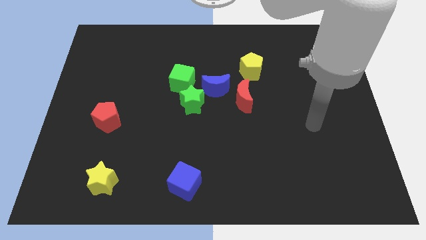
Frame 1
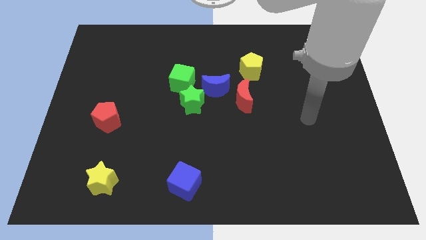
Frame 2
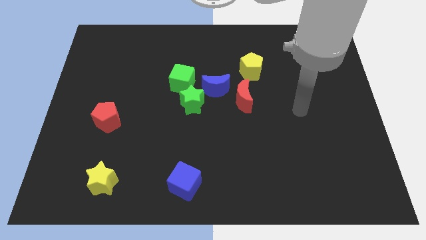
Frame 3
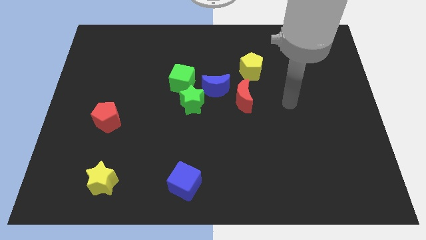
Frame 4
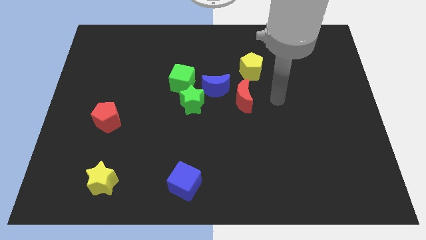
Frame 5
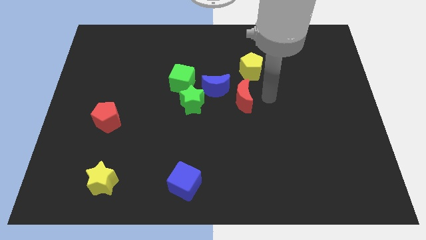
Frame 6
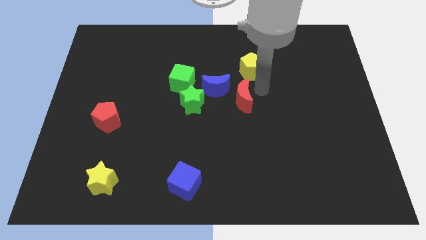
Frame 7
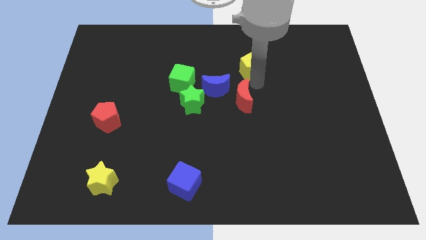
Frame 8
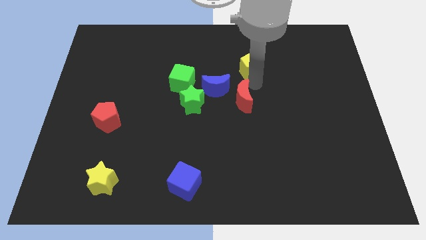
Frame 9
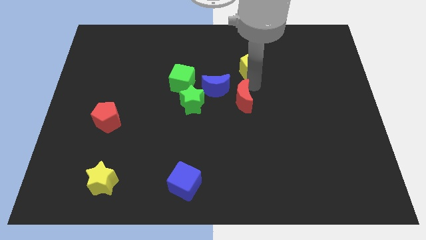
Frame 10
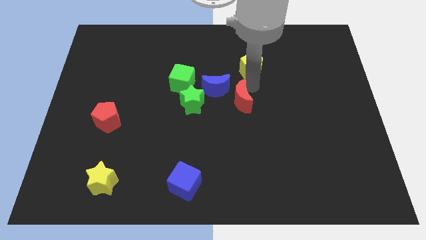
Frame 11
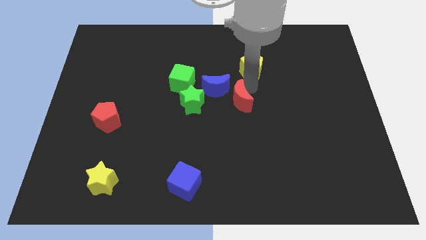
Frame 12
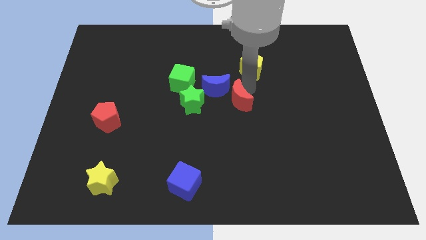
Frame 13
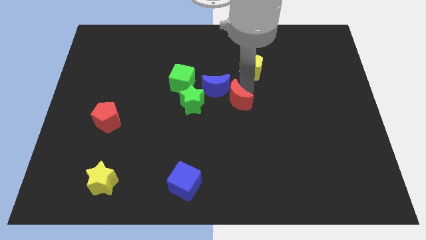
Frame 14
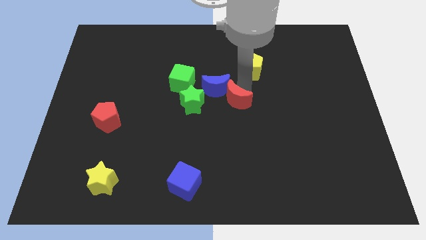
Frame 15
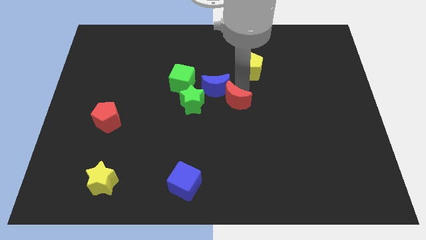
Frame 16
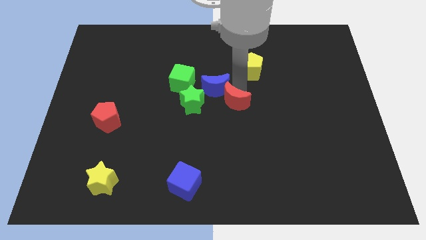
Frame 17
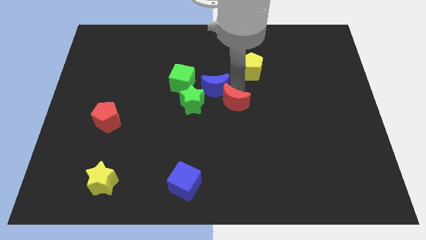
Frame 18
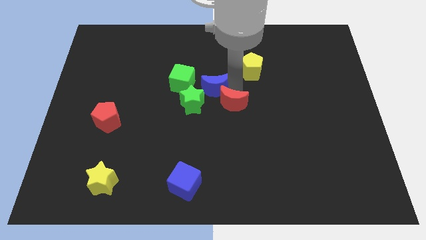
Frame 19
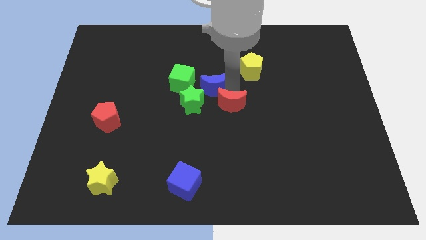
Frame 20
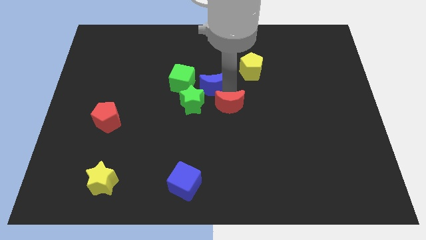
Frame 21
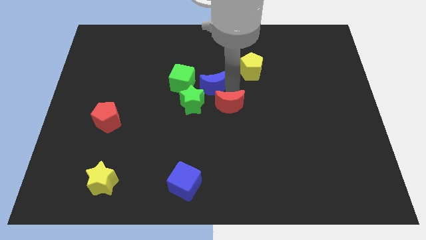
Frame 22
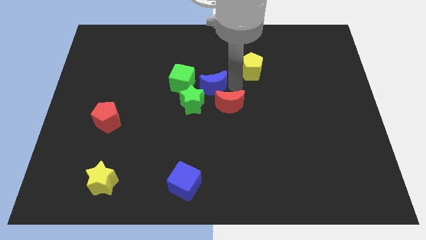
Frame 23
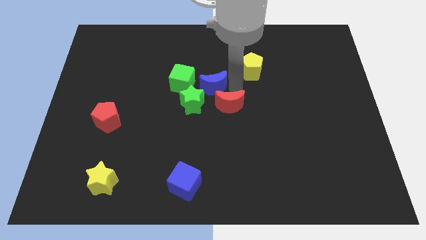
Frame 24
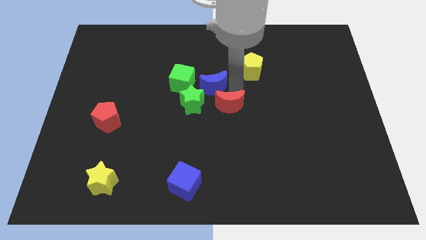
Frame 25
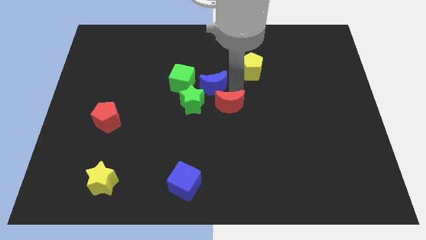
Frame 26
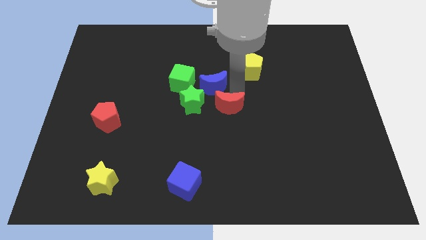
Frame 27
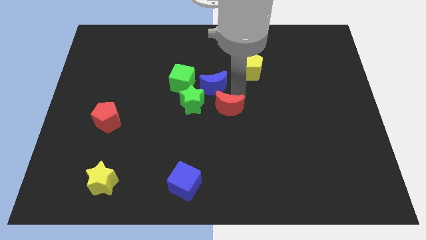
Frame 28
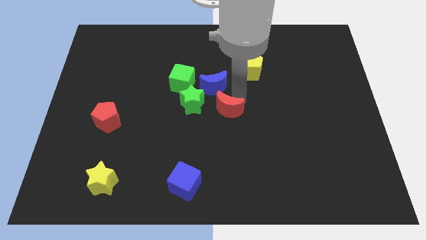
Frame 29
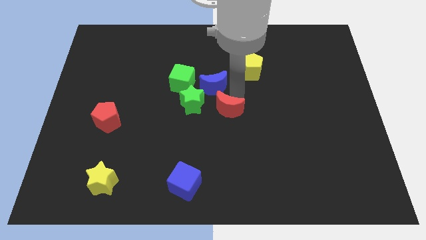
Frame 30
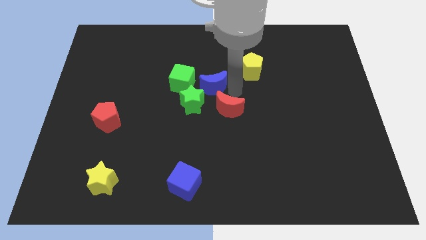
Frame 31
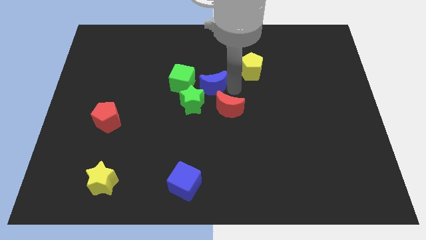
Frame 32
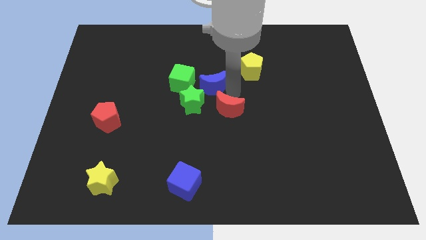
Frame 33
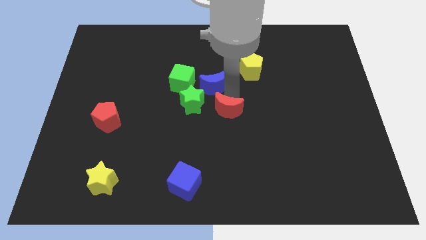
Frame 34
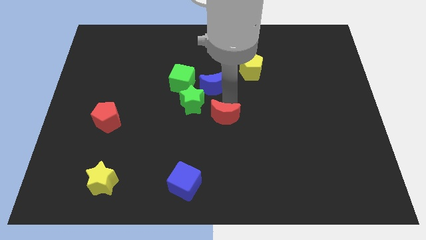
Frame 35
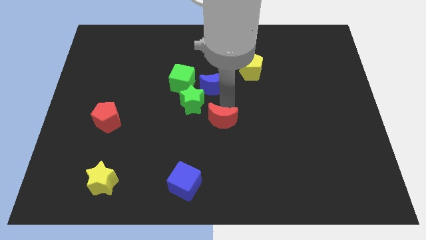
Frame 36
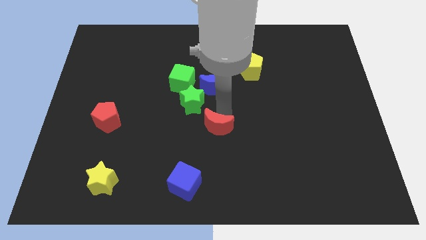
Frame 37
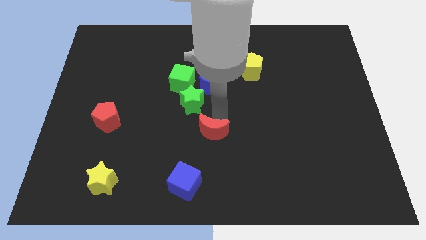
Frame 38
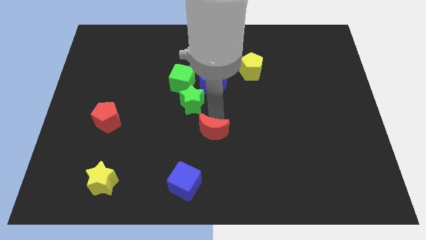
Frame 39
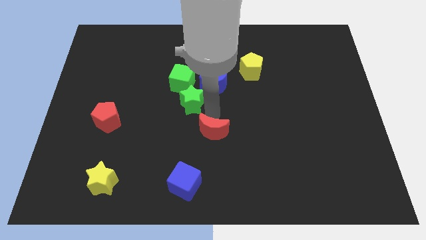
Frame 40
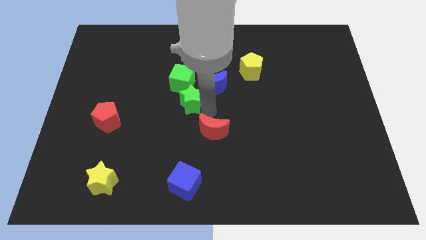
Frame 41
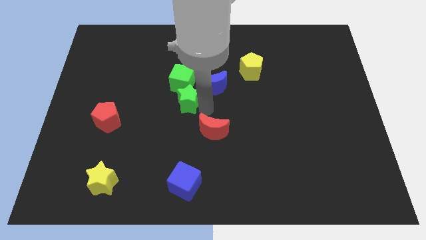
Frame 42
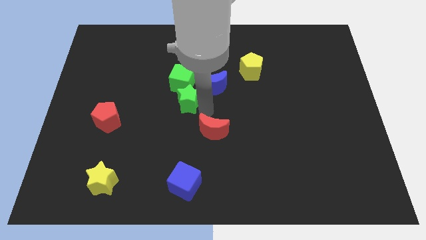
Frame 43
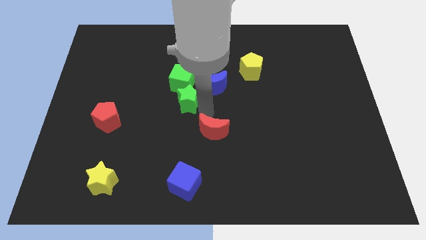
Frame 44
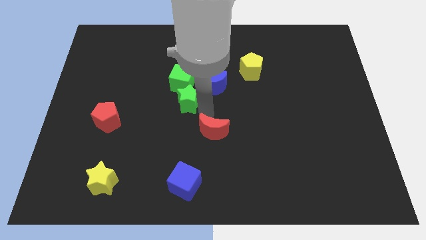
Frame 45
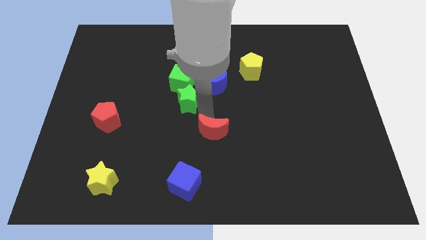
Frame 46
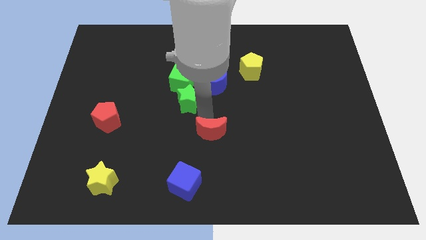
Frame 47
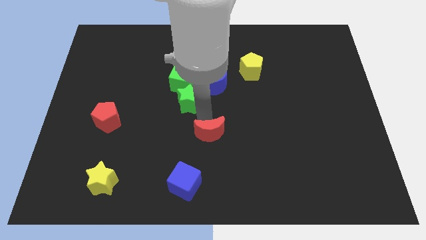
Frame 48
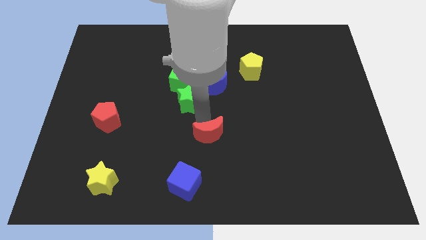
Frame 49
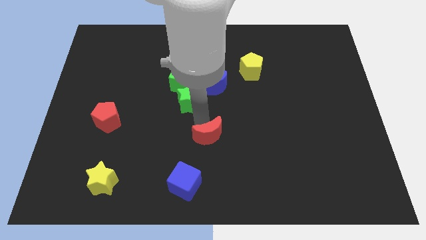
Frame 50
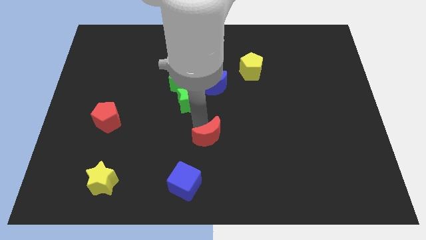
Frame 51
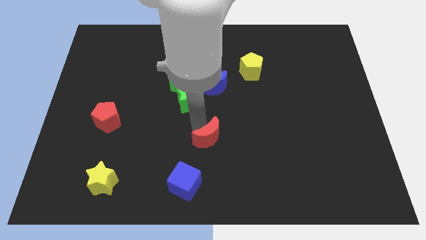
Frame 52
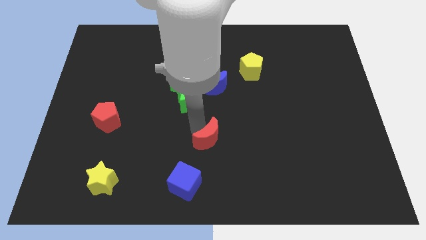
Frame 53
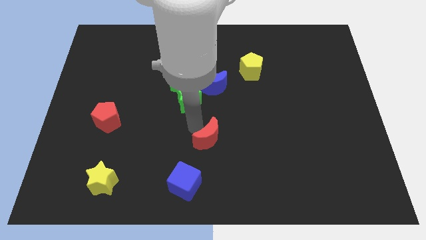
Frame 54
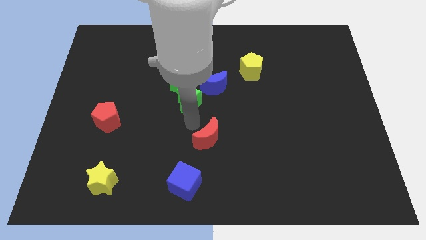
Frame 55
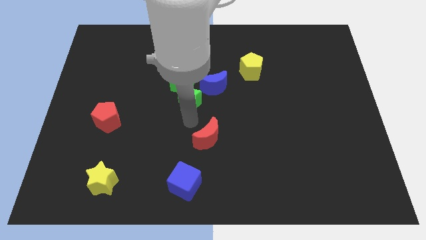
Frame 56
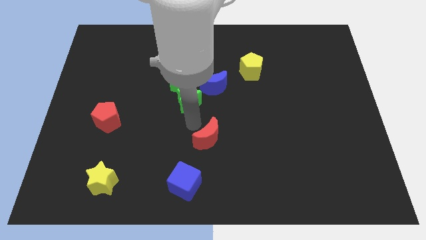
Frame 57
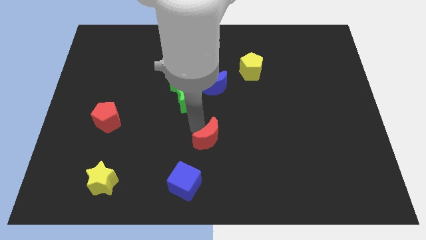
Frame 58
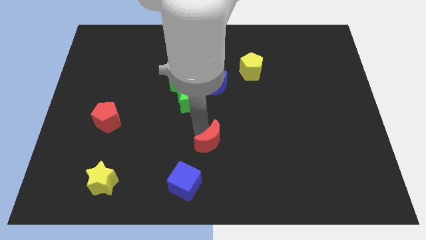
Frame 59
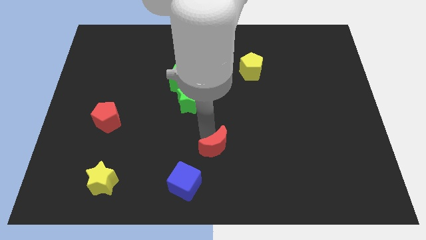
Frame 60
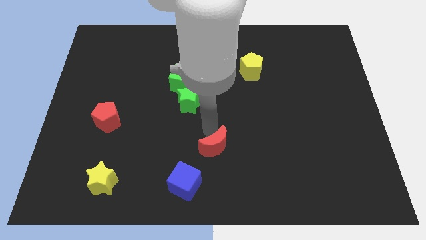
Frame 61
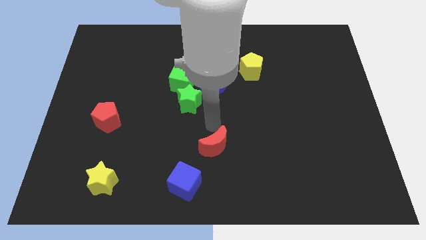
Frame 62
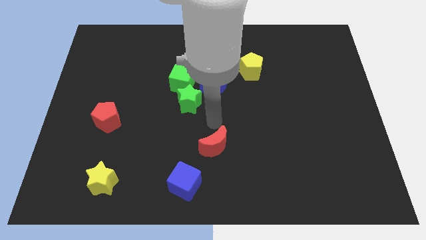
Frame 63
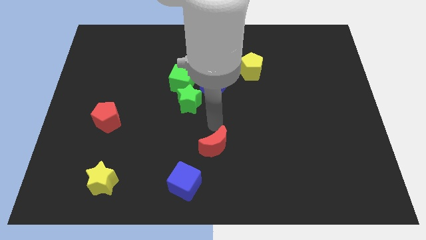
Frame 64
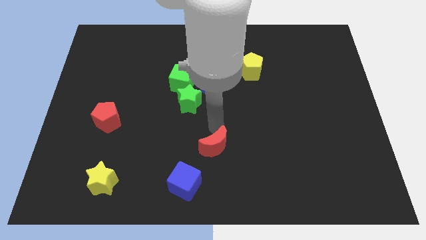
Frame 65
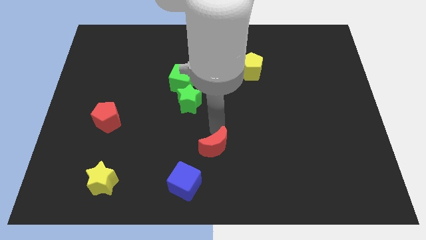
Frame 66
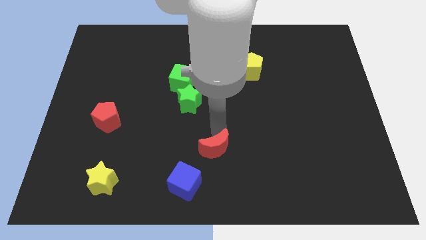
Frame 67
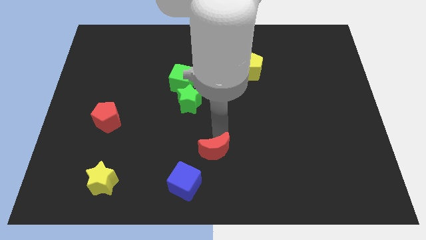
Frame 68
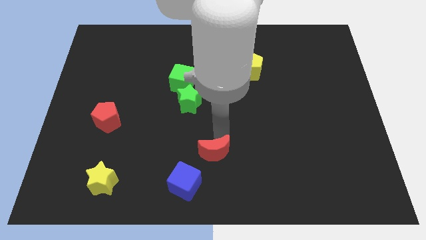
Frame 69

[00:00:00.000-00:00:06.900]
move the red moon to the bottom side

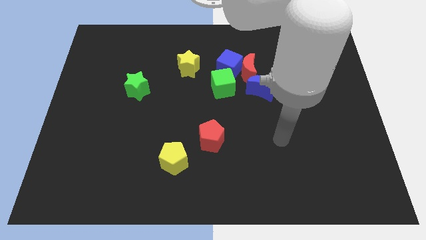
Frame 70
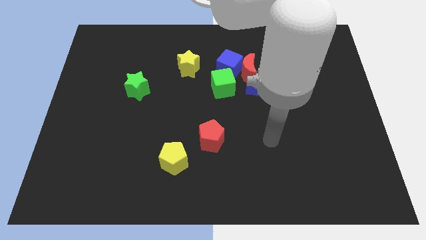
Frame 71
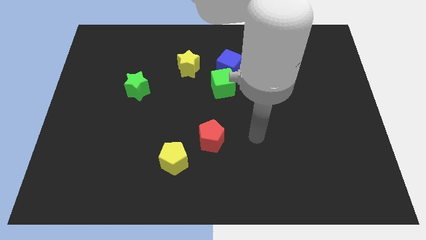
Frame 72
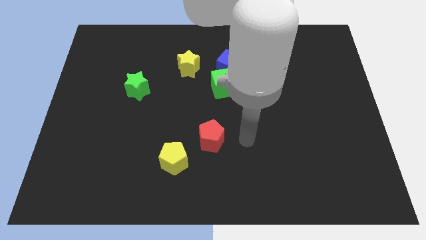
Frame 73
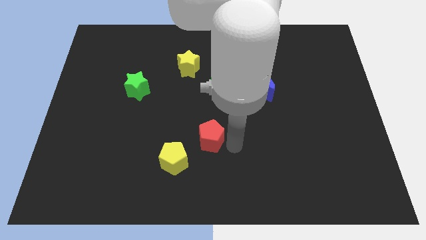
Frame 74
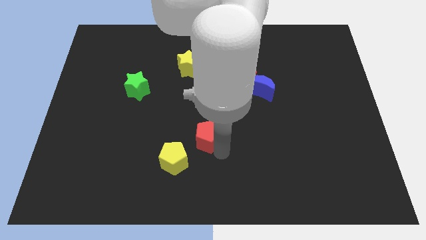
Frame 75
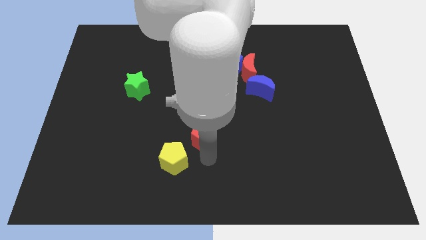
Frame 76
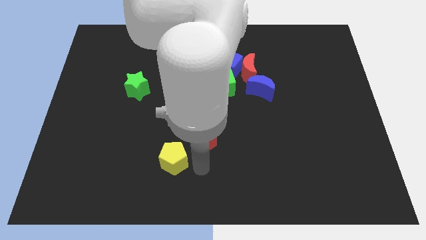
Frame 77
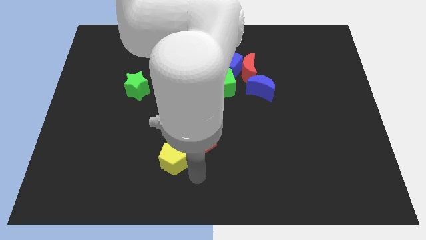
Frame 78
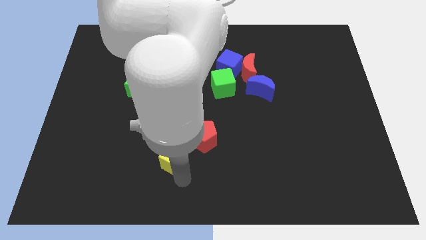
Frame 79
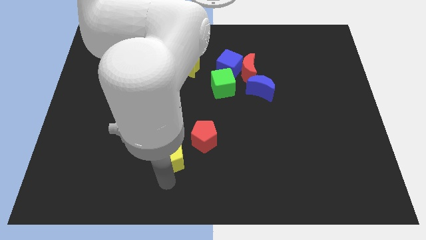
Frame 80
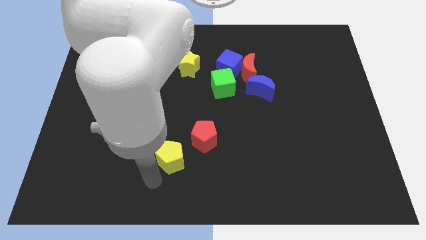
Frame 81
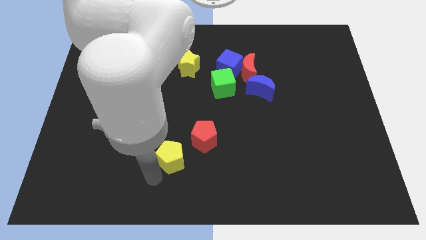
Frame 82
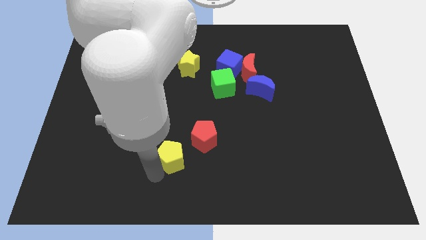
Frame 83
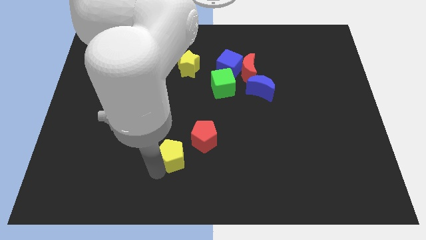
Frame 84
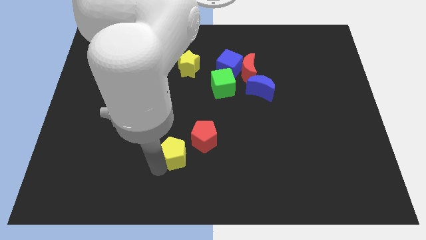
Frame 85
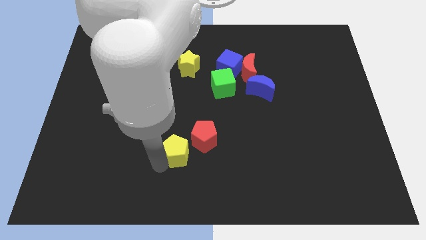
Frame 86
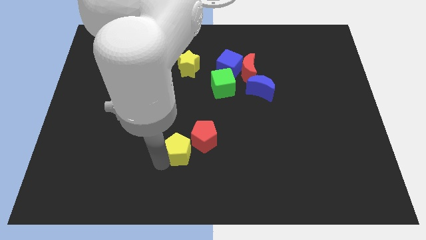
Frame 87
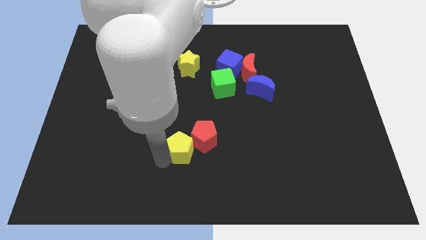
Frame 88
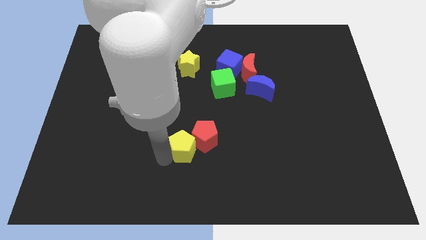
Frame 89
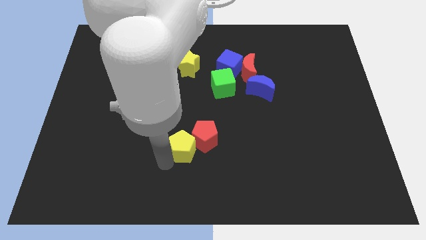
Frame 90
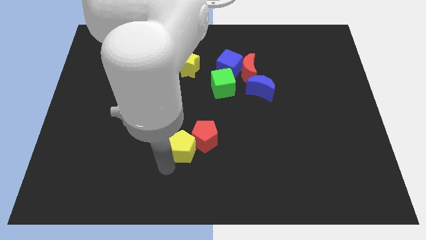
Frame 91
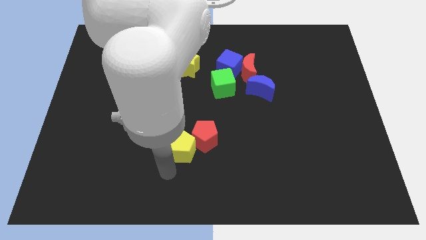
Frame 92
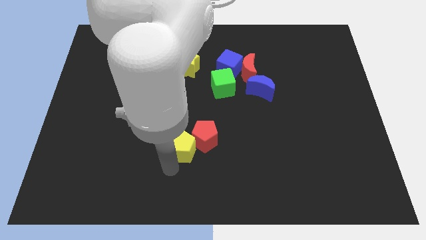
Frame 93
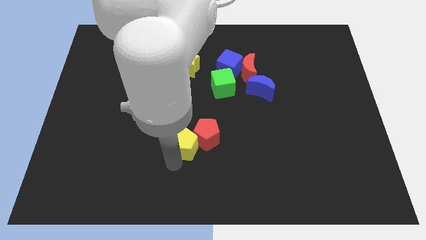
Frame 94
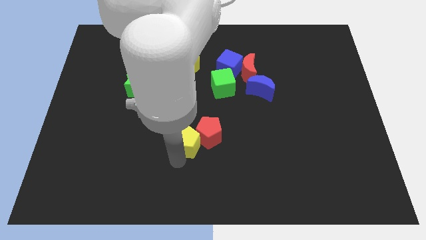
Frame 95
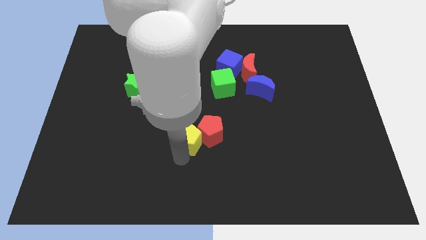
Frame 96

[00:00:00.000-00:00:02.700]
move the yellow pentagon to the middle
